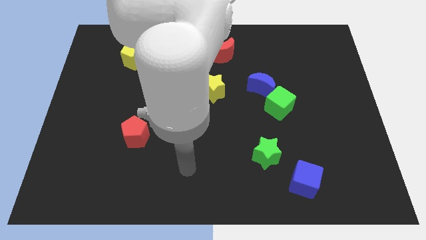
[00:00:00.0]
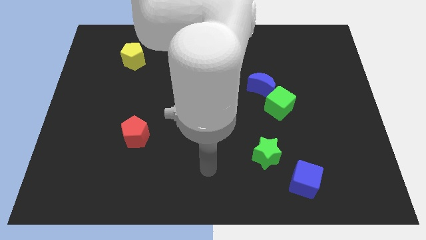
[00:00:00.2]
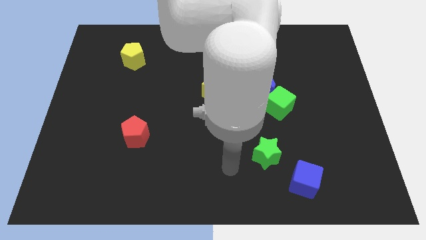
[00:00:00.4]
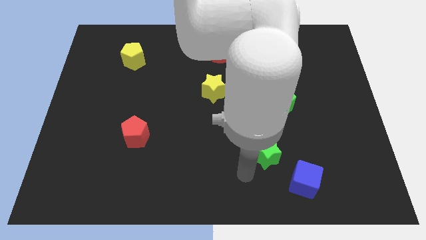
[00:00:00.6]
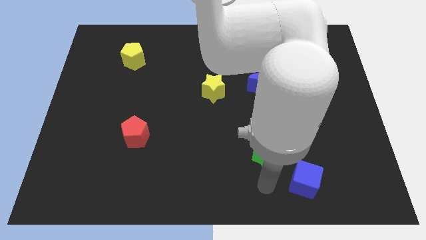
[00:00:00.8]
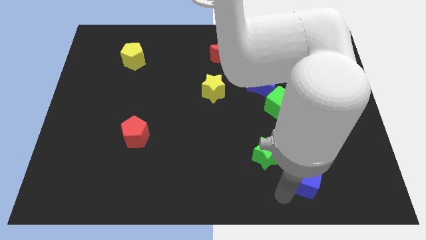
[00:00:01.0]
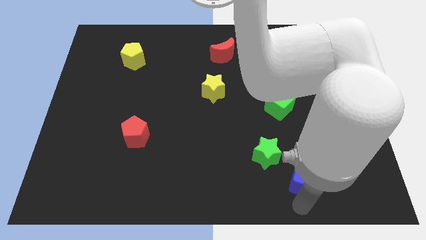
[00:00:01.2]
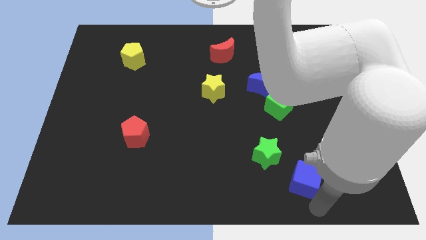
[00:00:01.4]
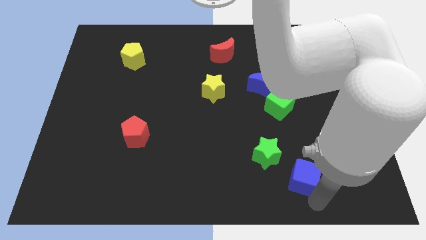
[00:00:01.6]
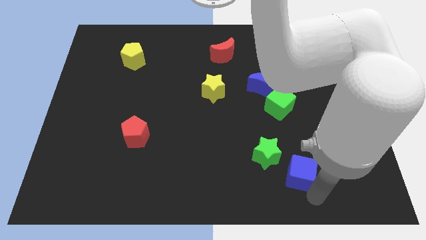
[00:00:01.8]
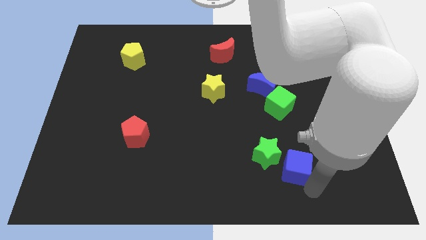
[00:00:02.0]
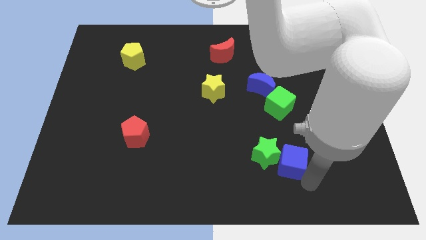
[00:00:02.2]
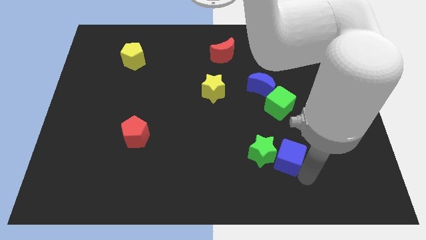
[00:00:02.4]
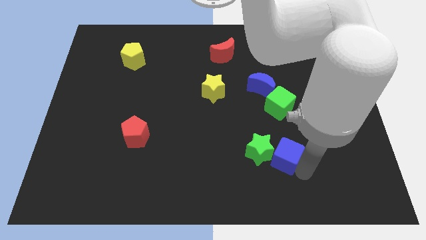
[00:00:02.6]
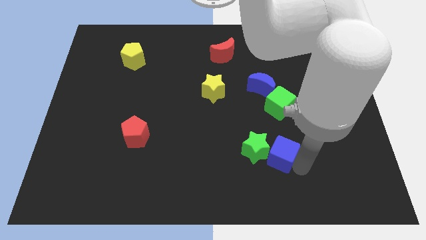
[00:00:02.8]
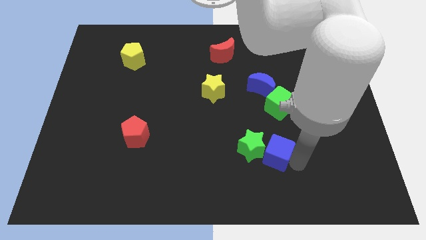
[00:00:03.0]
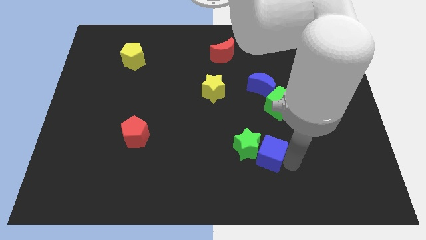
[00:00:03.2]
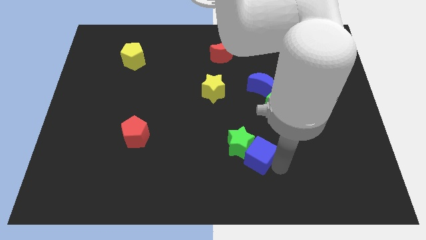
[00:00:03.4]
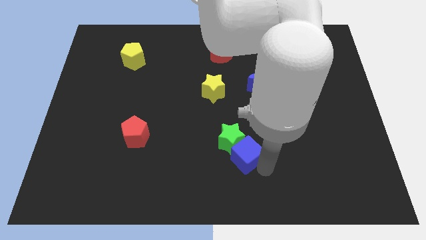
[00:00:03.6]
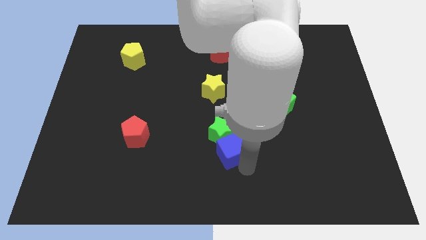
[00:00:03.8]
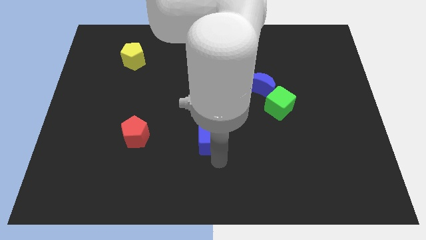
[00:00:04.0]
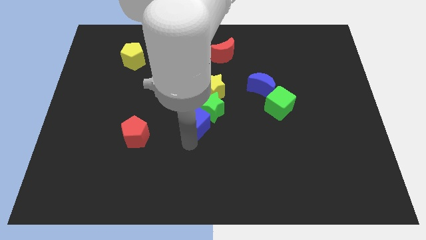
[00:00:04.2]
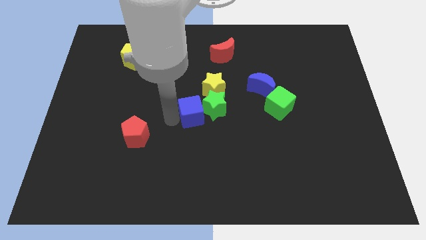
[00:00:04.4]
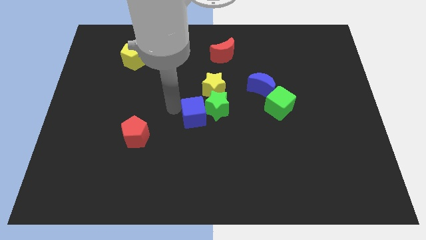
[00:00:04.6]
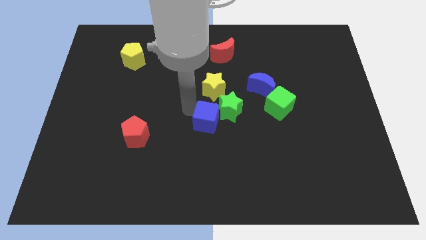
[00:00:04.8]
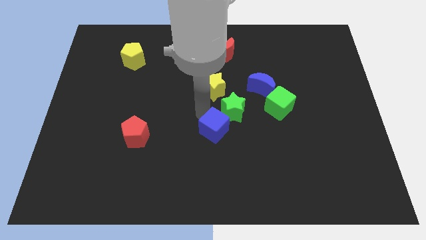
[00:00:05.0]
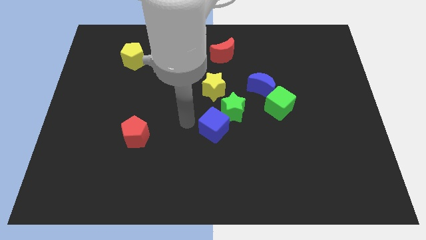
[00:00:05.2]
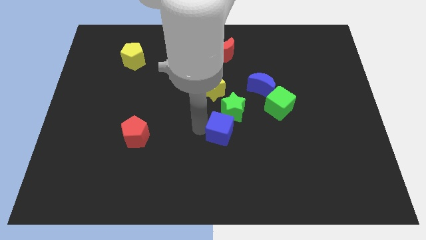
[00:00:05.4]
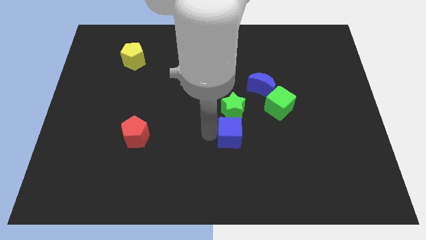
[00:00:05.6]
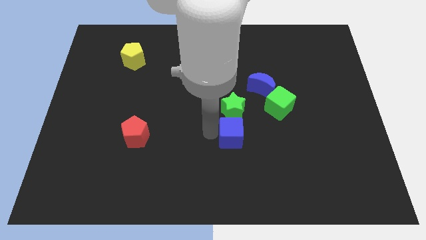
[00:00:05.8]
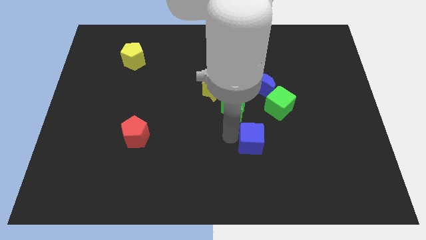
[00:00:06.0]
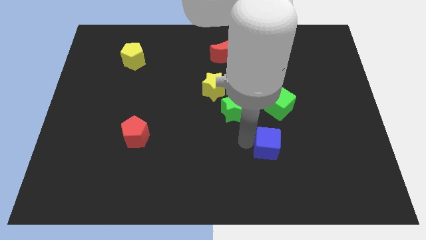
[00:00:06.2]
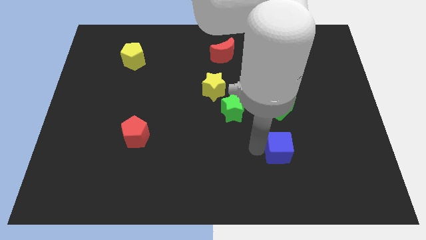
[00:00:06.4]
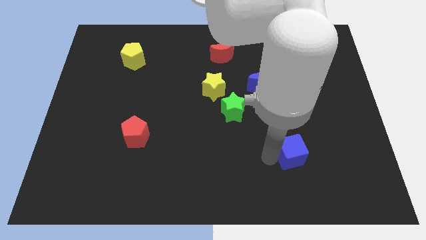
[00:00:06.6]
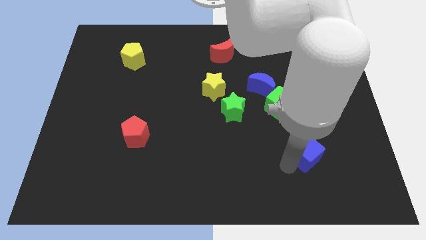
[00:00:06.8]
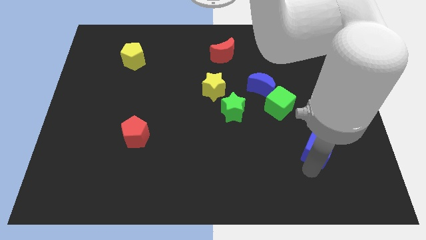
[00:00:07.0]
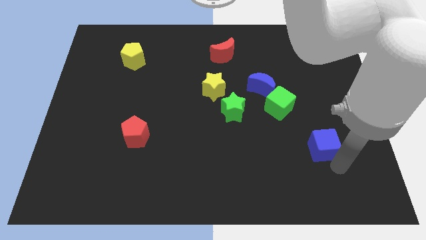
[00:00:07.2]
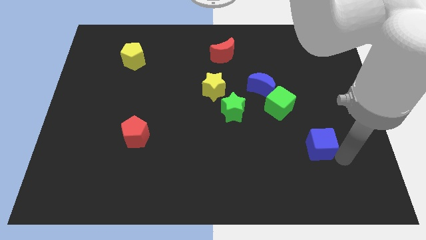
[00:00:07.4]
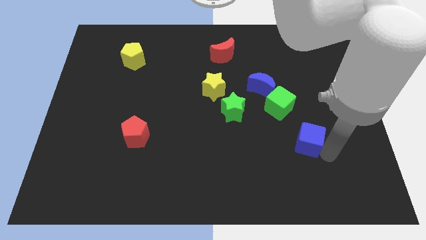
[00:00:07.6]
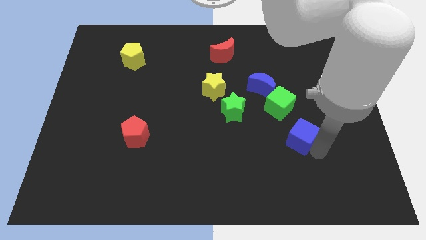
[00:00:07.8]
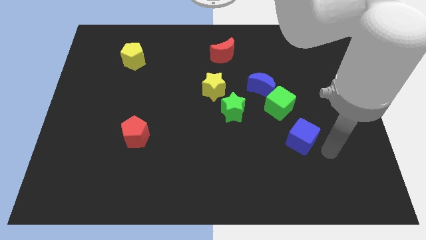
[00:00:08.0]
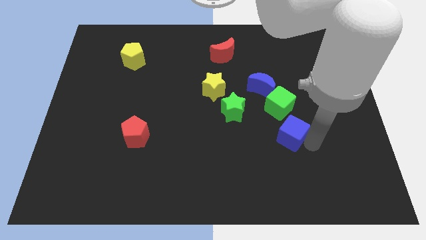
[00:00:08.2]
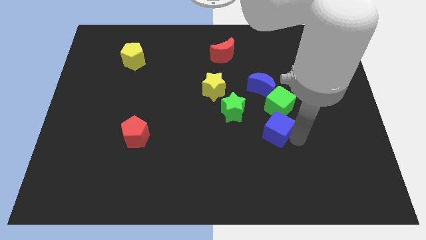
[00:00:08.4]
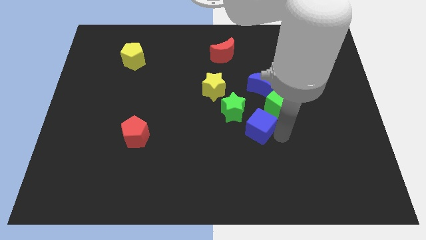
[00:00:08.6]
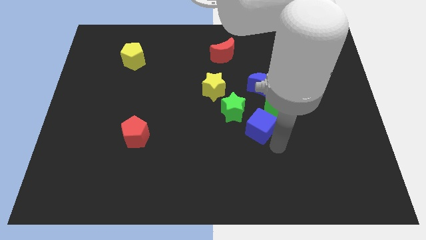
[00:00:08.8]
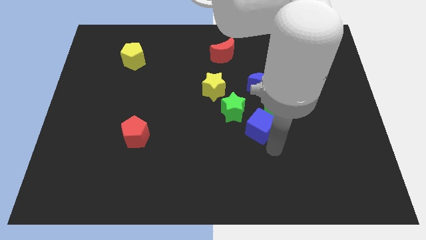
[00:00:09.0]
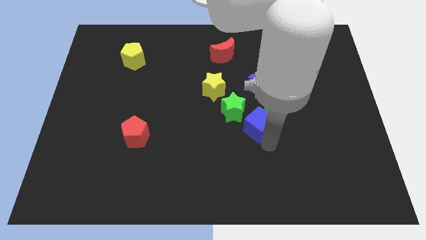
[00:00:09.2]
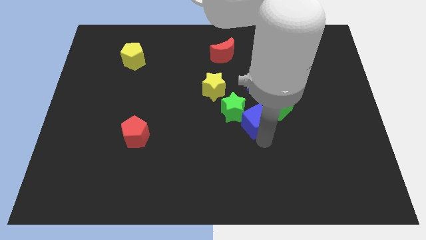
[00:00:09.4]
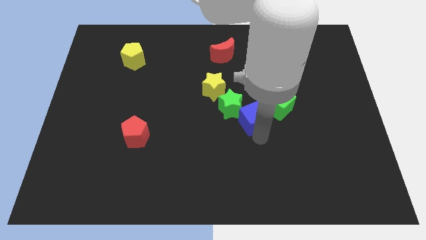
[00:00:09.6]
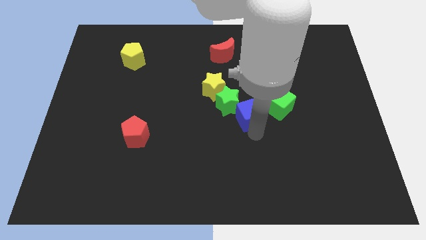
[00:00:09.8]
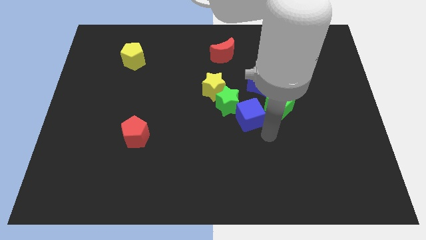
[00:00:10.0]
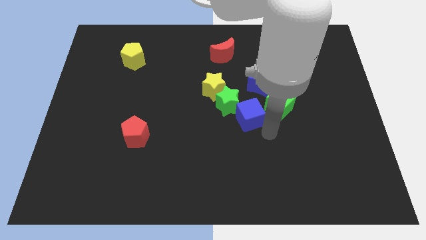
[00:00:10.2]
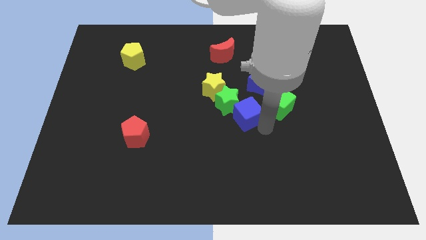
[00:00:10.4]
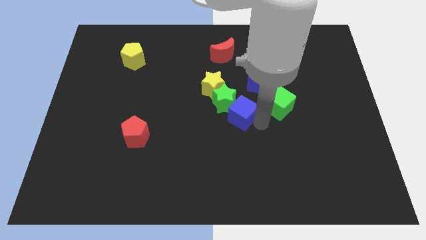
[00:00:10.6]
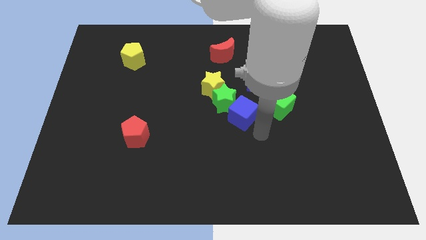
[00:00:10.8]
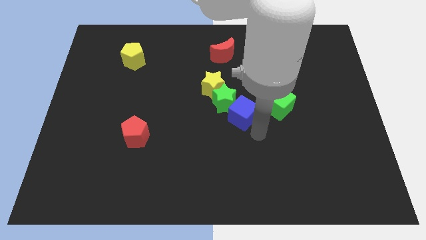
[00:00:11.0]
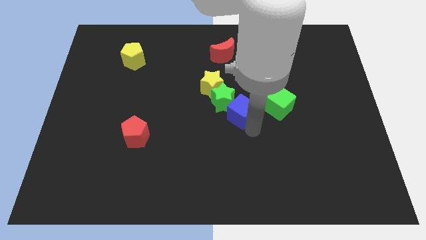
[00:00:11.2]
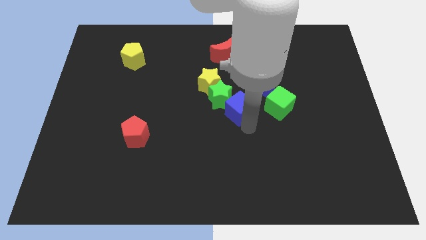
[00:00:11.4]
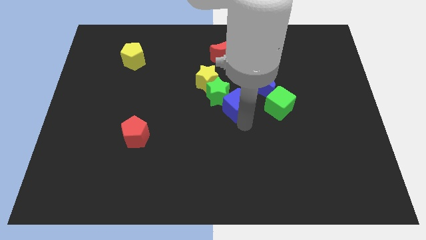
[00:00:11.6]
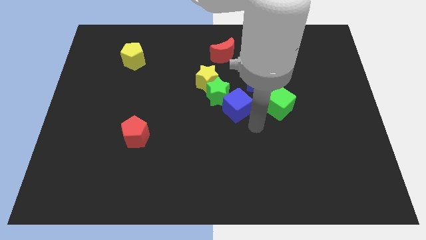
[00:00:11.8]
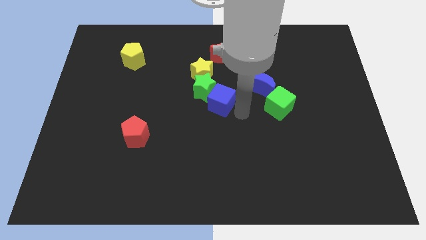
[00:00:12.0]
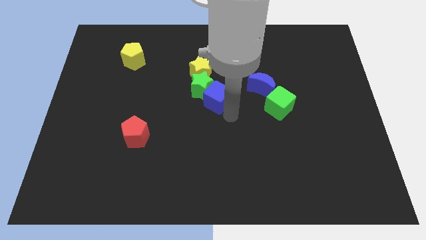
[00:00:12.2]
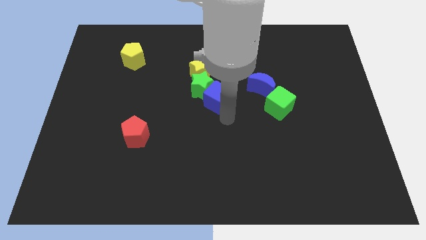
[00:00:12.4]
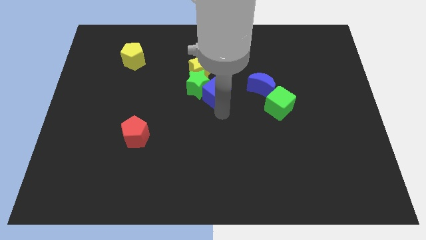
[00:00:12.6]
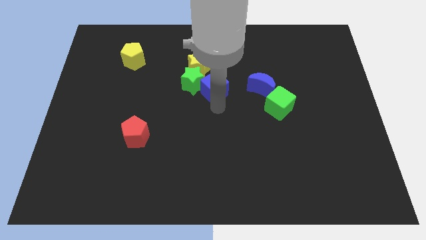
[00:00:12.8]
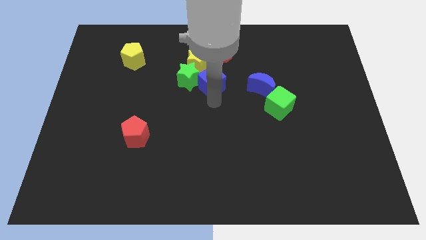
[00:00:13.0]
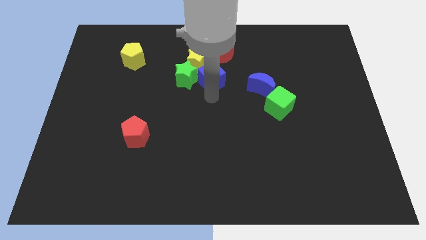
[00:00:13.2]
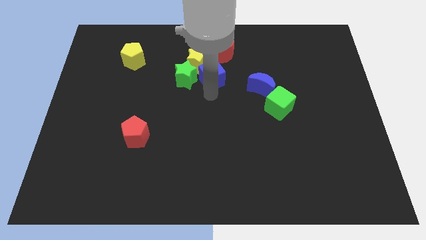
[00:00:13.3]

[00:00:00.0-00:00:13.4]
slide the blue cube close to the yellow star

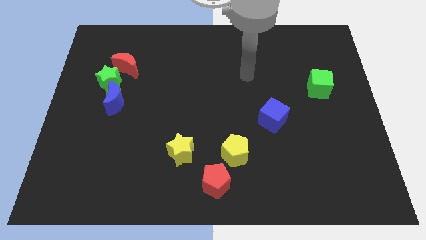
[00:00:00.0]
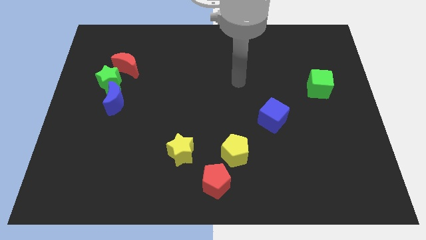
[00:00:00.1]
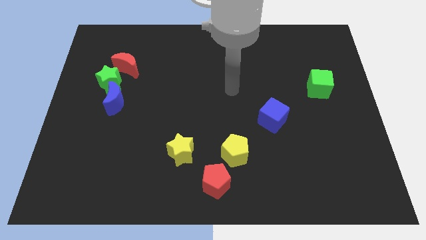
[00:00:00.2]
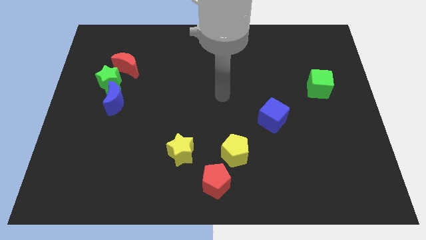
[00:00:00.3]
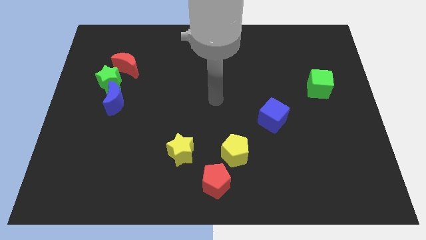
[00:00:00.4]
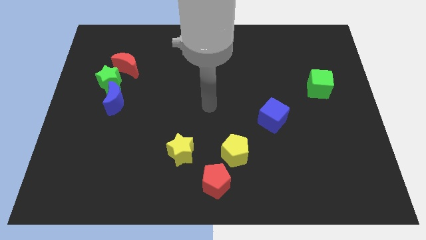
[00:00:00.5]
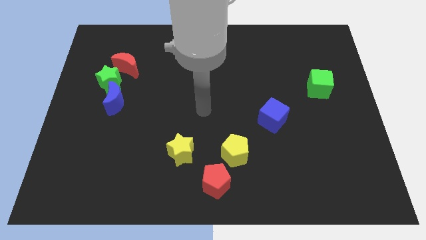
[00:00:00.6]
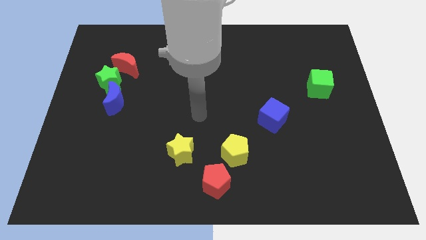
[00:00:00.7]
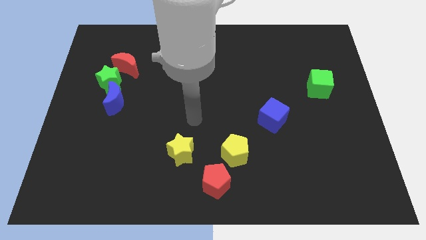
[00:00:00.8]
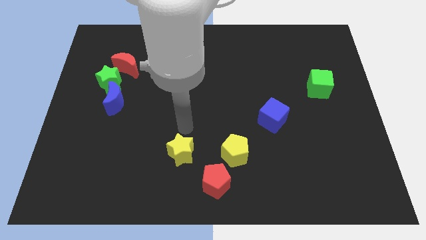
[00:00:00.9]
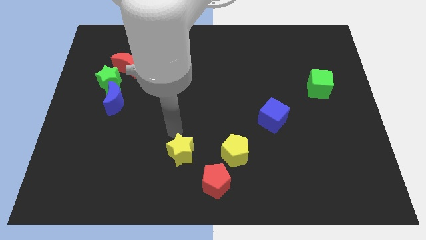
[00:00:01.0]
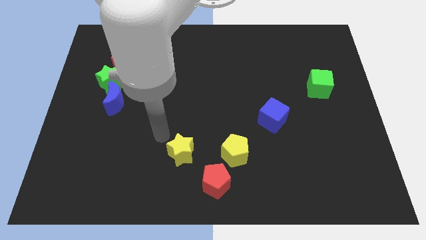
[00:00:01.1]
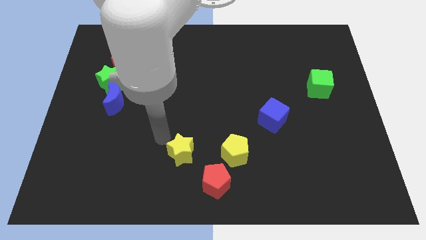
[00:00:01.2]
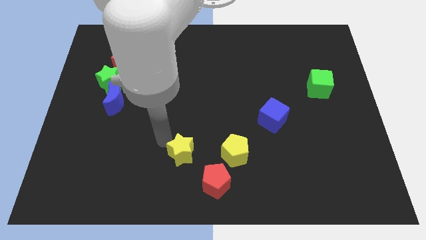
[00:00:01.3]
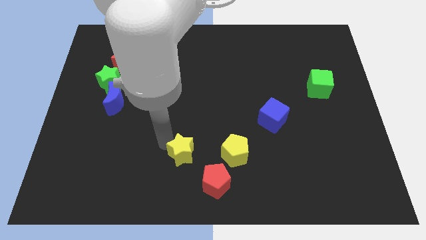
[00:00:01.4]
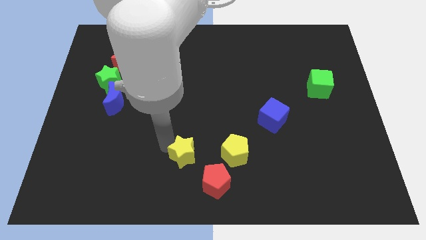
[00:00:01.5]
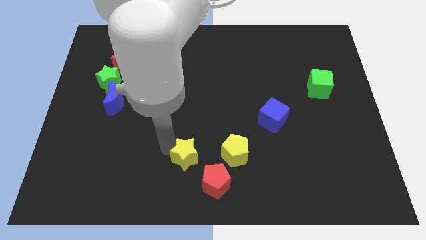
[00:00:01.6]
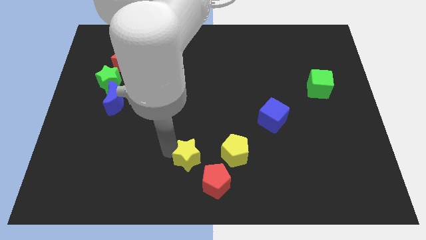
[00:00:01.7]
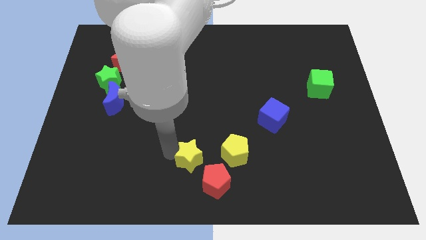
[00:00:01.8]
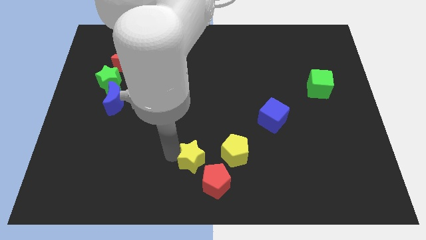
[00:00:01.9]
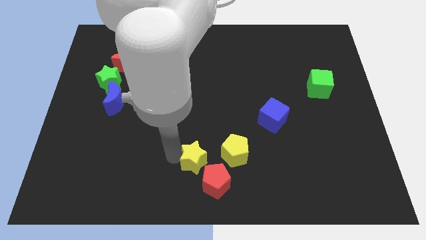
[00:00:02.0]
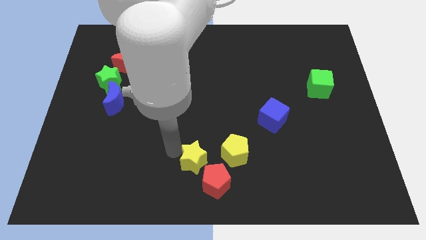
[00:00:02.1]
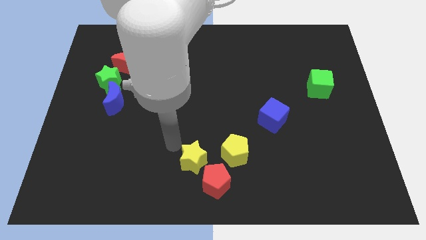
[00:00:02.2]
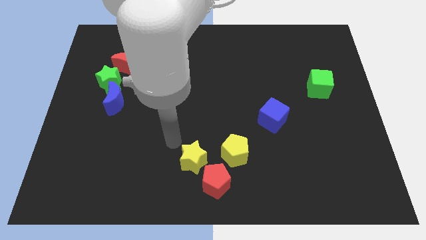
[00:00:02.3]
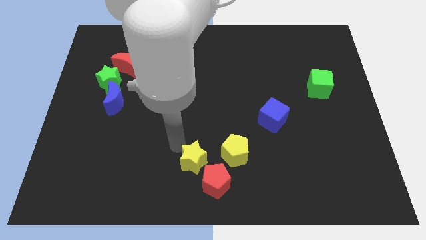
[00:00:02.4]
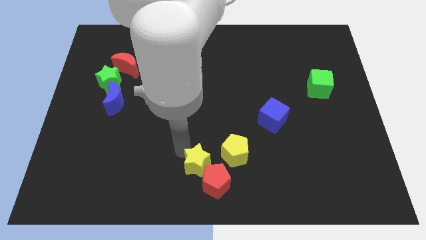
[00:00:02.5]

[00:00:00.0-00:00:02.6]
push the yellow star to the red pentagon
